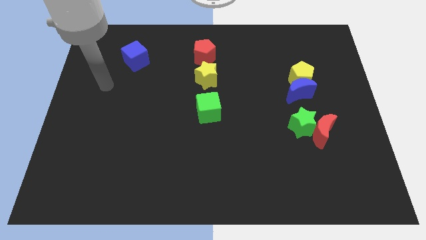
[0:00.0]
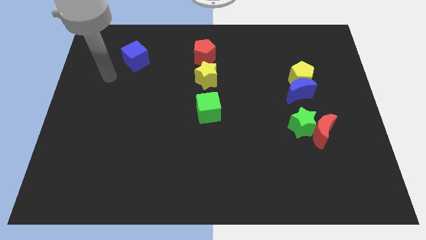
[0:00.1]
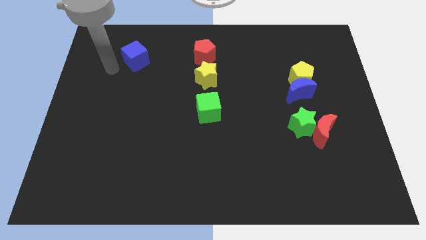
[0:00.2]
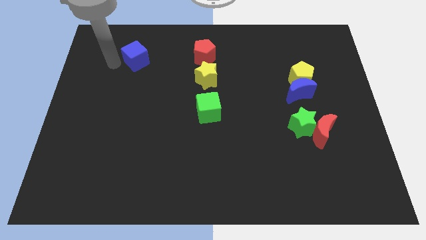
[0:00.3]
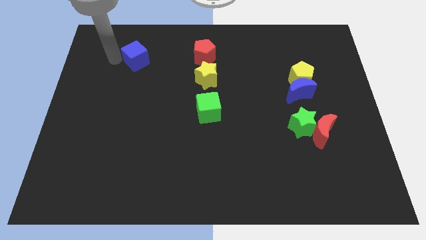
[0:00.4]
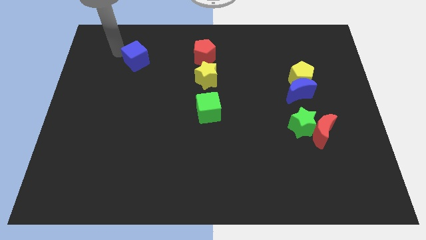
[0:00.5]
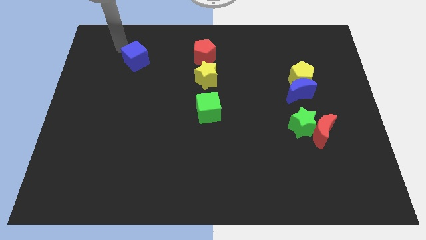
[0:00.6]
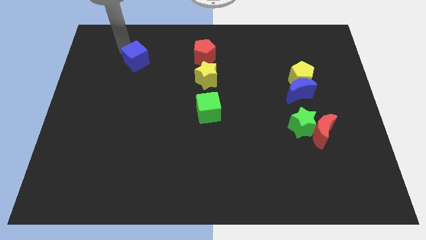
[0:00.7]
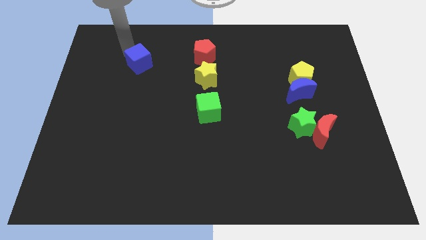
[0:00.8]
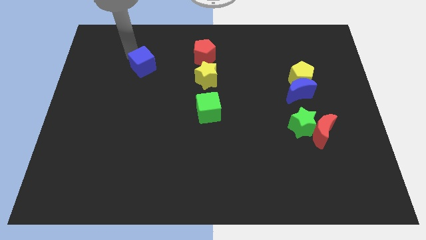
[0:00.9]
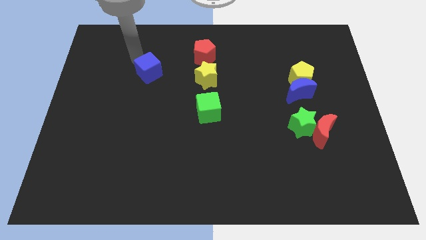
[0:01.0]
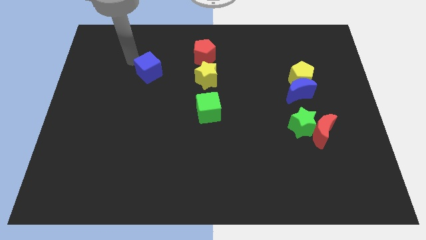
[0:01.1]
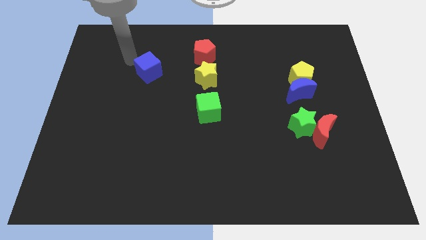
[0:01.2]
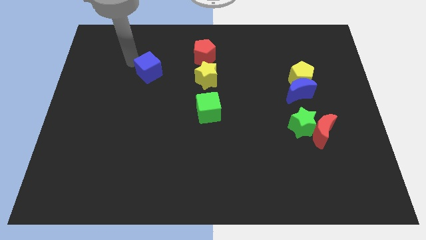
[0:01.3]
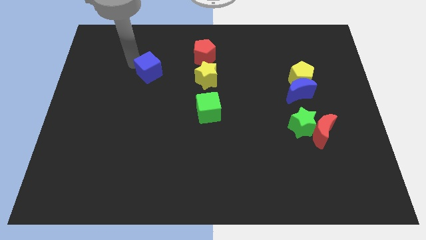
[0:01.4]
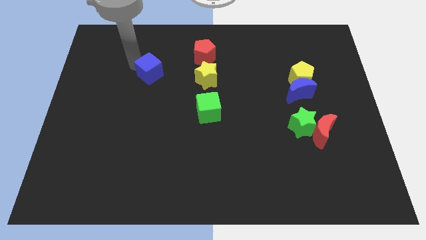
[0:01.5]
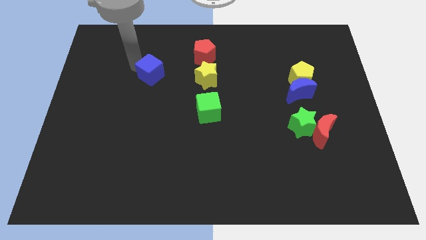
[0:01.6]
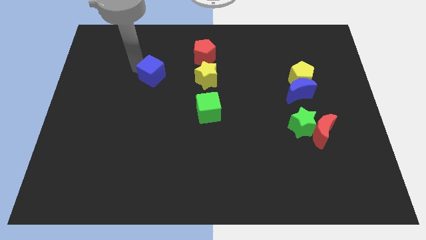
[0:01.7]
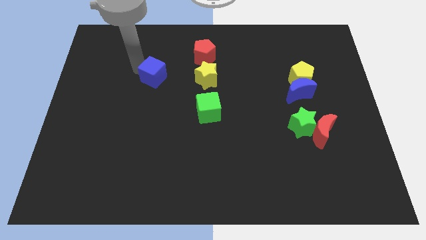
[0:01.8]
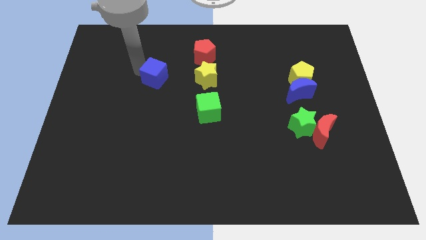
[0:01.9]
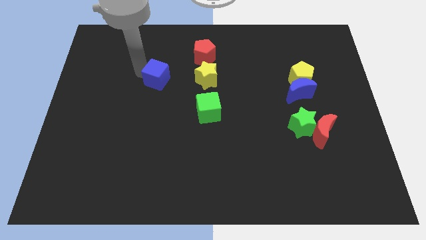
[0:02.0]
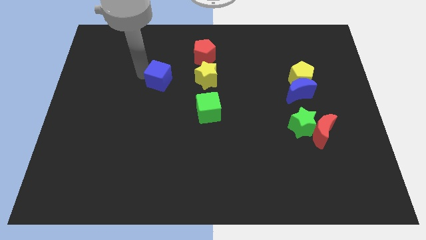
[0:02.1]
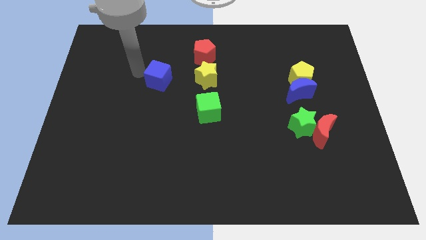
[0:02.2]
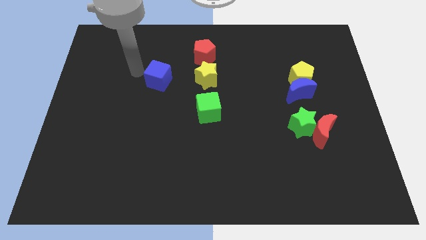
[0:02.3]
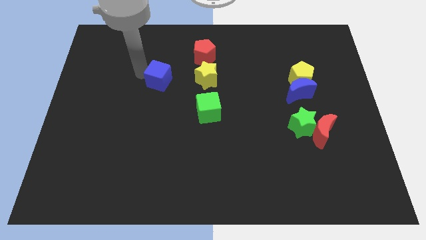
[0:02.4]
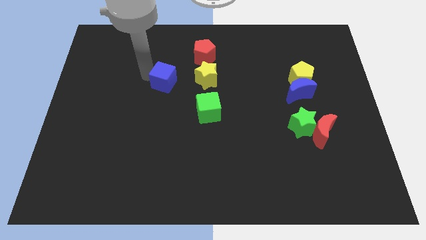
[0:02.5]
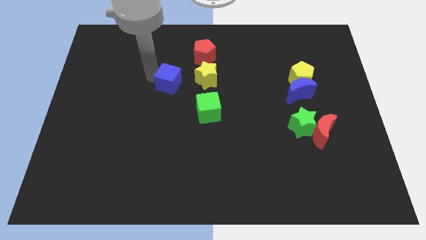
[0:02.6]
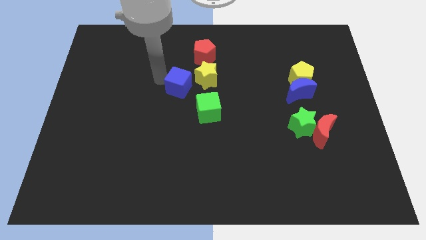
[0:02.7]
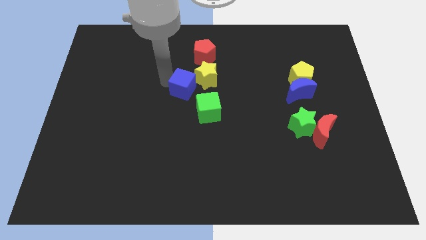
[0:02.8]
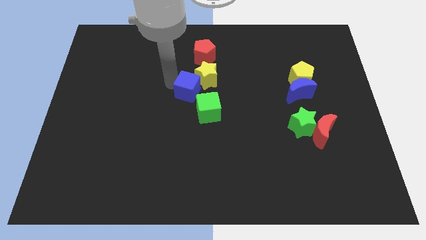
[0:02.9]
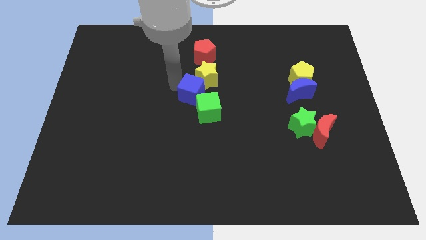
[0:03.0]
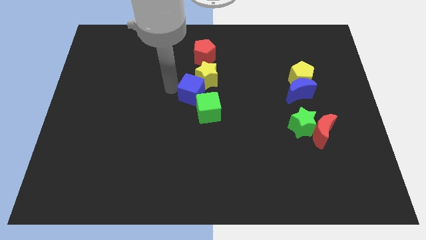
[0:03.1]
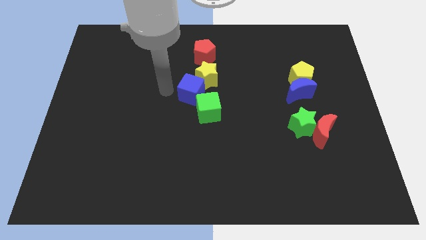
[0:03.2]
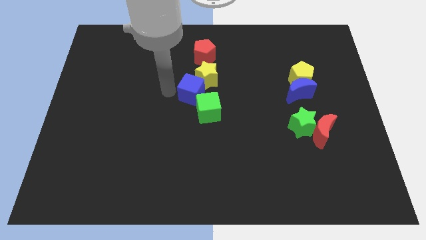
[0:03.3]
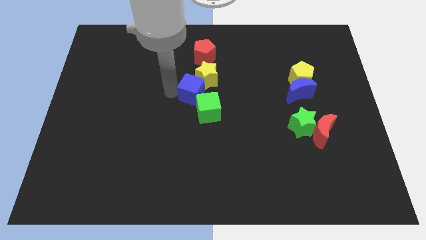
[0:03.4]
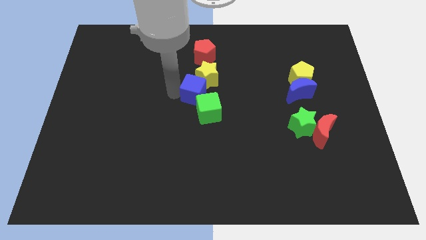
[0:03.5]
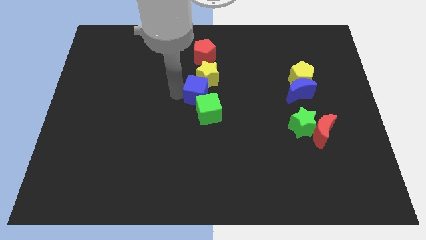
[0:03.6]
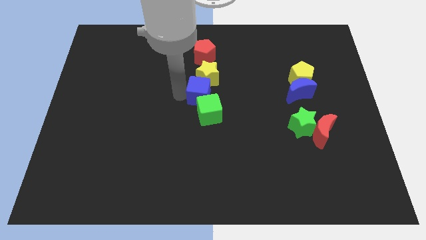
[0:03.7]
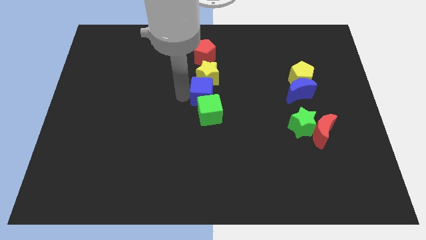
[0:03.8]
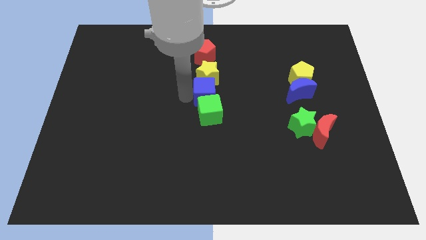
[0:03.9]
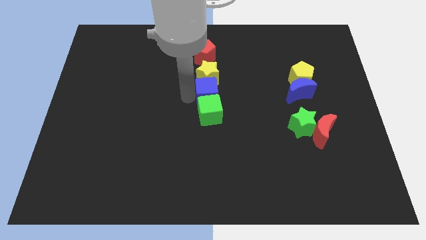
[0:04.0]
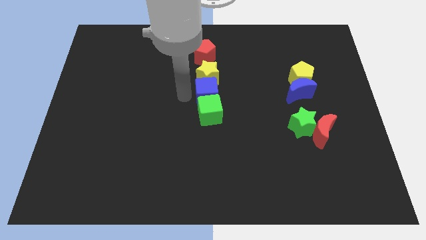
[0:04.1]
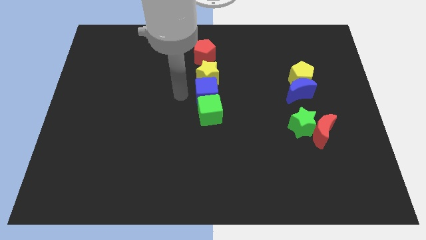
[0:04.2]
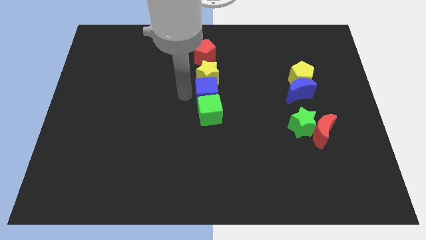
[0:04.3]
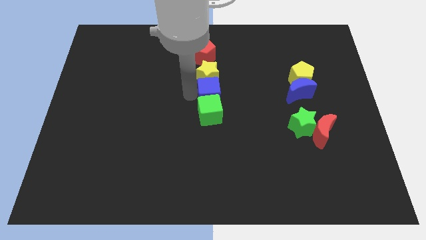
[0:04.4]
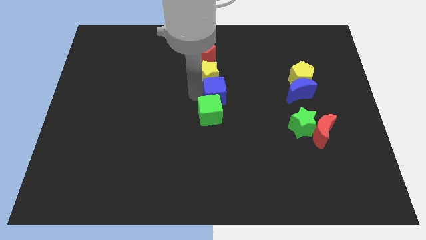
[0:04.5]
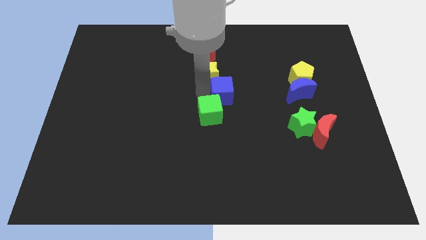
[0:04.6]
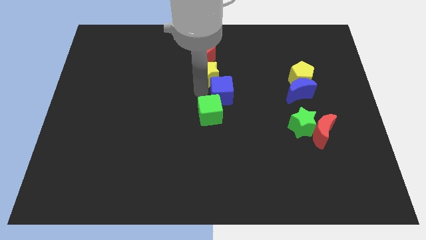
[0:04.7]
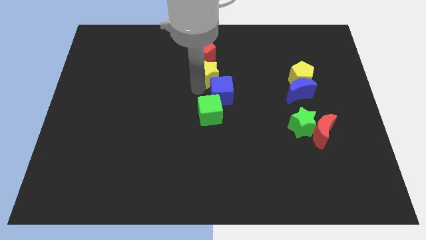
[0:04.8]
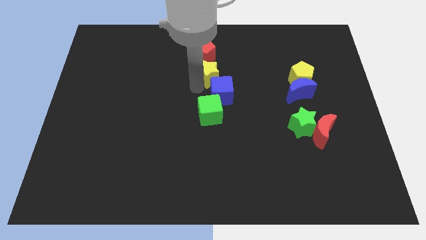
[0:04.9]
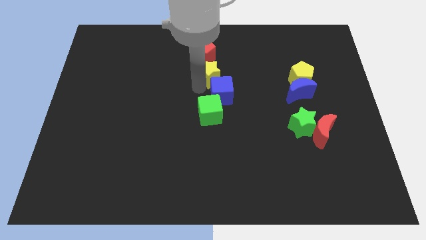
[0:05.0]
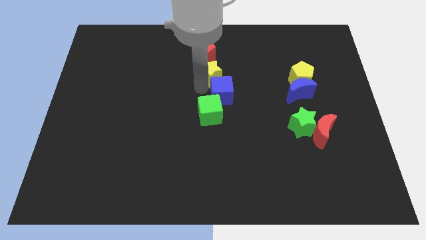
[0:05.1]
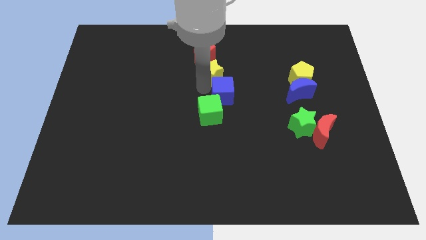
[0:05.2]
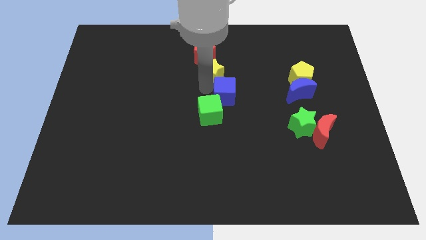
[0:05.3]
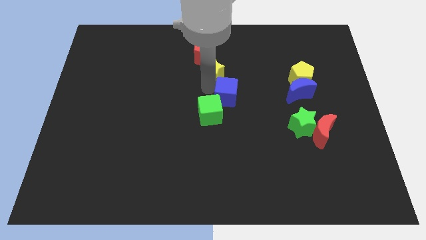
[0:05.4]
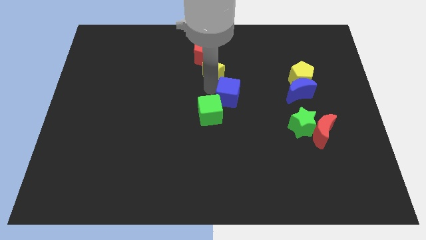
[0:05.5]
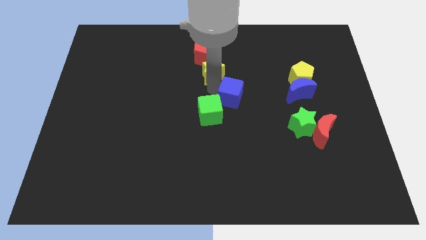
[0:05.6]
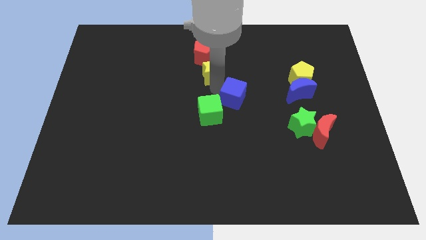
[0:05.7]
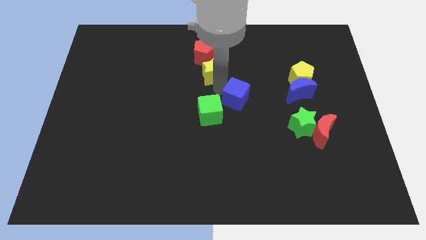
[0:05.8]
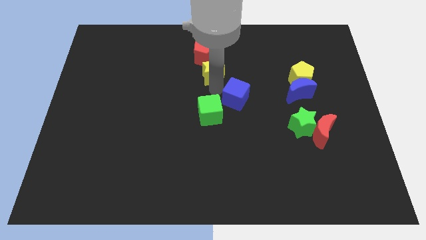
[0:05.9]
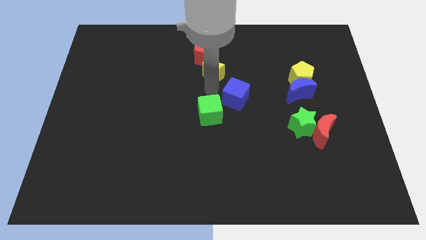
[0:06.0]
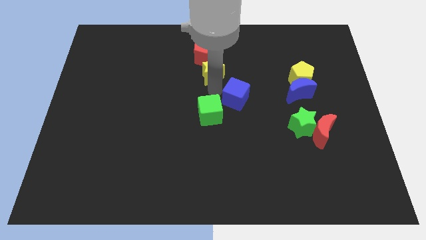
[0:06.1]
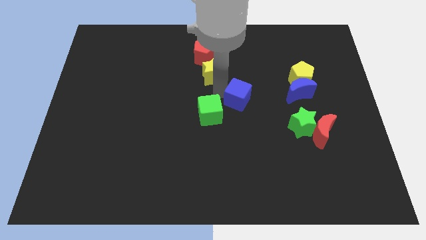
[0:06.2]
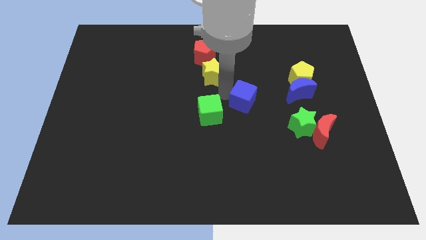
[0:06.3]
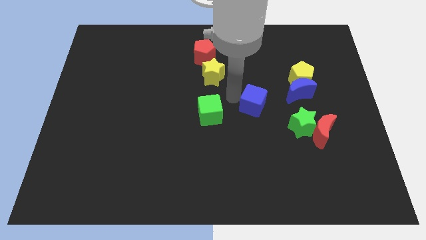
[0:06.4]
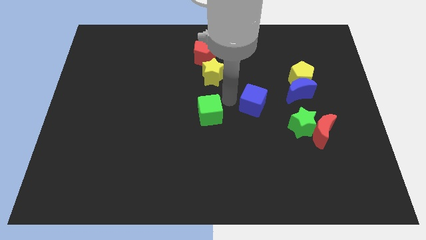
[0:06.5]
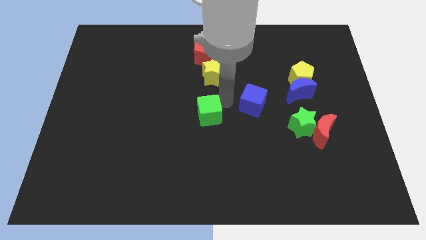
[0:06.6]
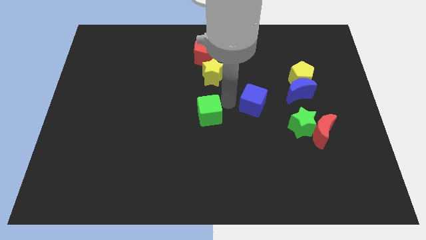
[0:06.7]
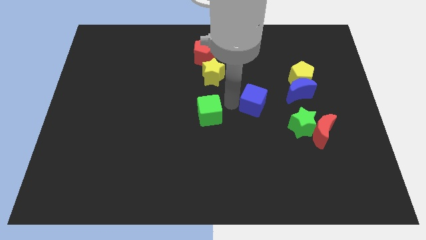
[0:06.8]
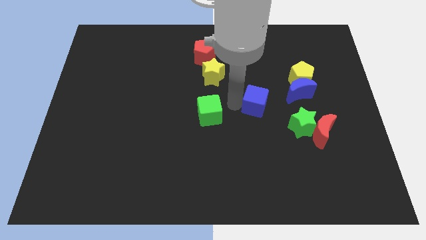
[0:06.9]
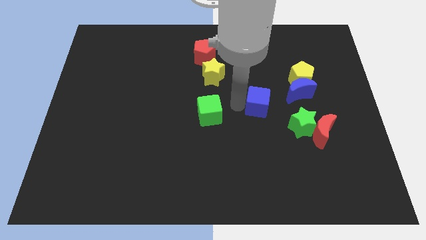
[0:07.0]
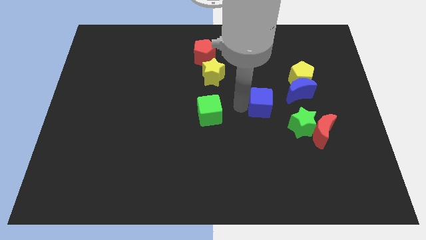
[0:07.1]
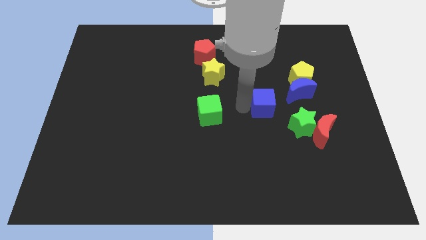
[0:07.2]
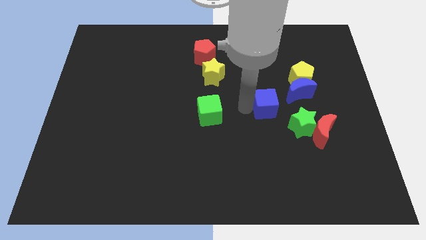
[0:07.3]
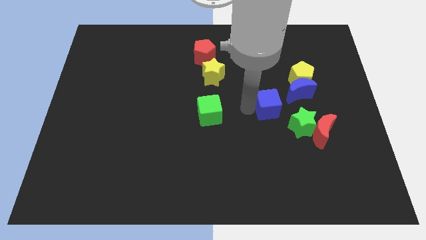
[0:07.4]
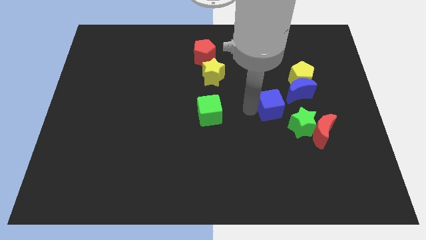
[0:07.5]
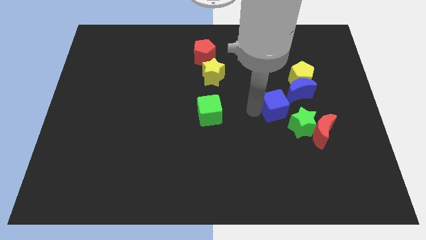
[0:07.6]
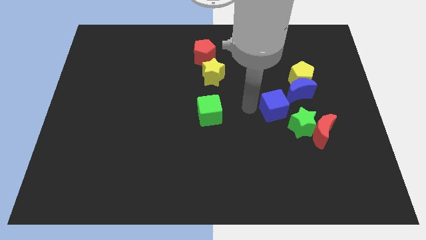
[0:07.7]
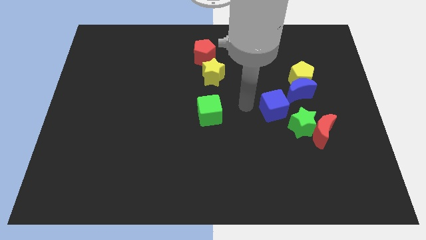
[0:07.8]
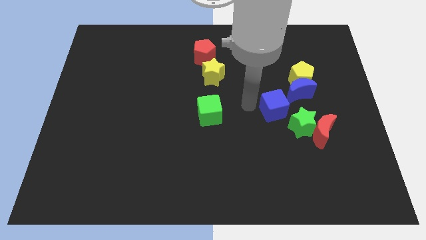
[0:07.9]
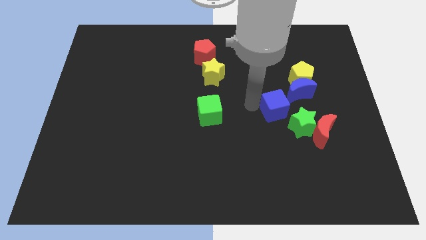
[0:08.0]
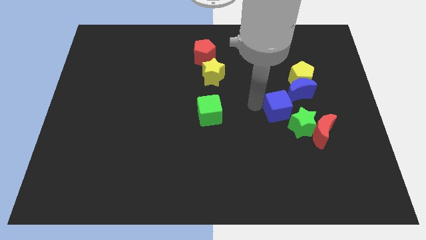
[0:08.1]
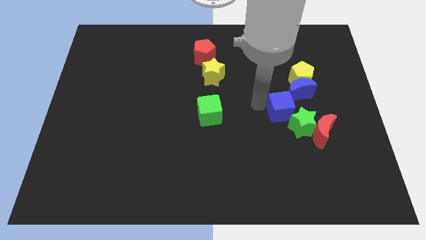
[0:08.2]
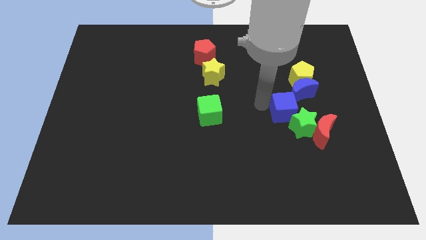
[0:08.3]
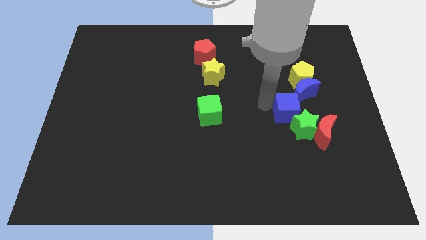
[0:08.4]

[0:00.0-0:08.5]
put the blue cube to the bottom side of the yellow pentagon

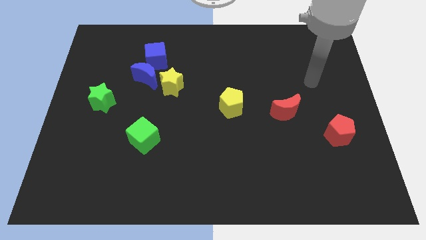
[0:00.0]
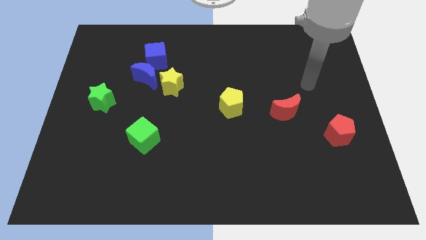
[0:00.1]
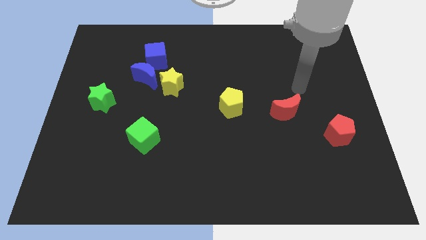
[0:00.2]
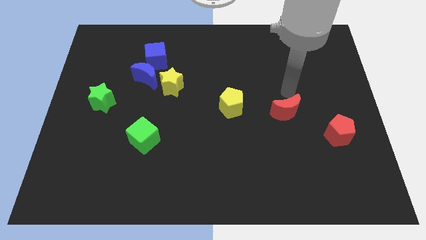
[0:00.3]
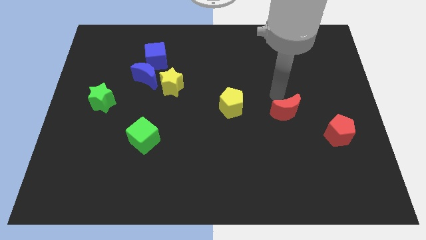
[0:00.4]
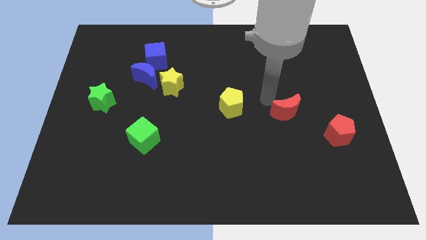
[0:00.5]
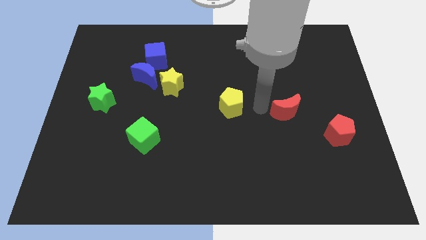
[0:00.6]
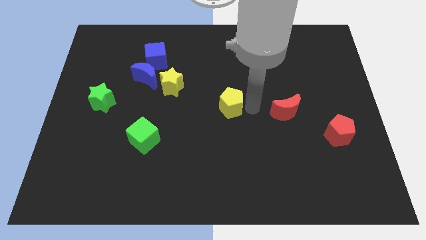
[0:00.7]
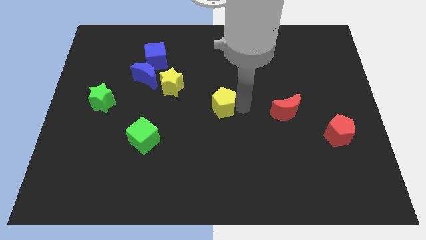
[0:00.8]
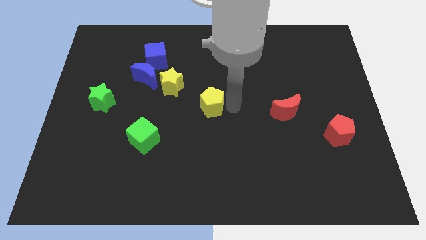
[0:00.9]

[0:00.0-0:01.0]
push the yellow pentagon diagonally down and to the right of the yellow star
